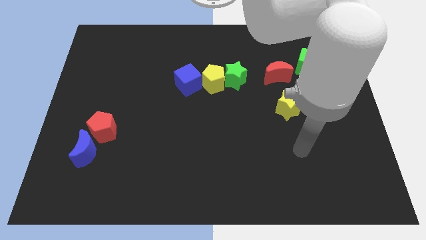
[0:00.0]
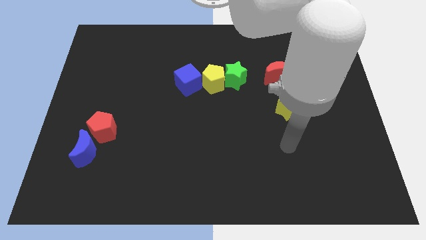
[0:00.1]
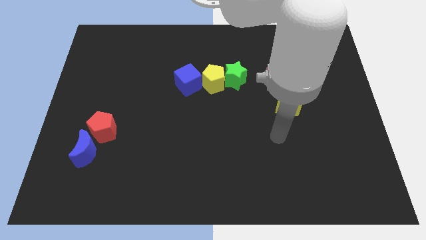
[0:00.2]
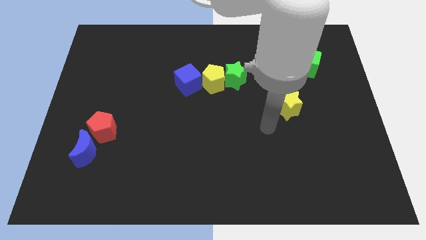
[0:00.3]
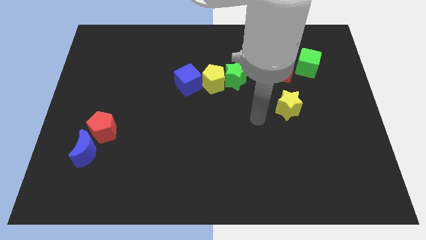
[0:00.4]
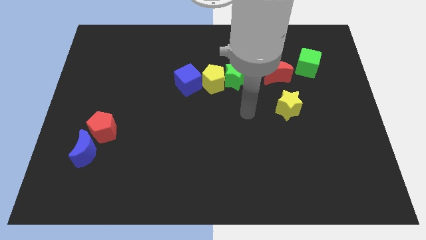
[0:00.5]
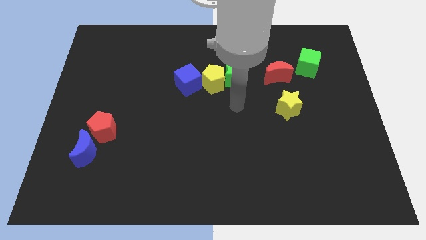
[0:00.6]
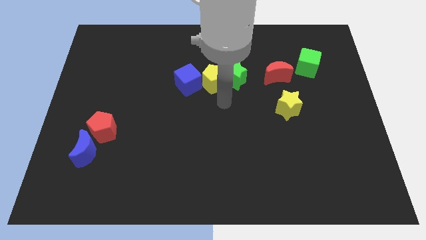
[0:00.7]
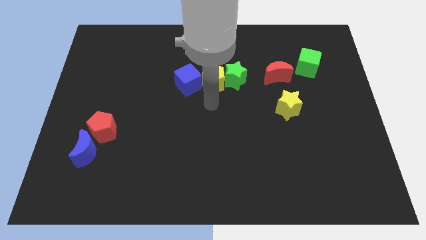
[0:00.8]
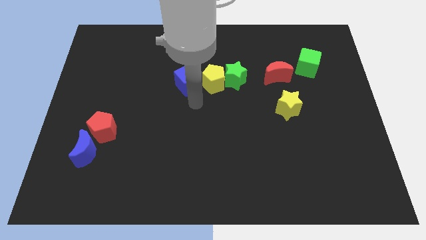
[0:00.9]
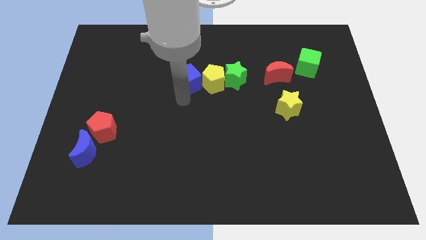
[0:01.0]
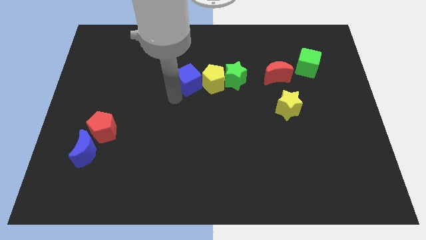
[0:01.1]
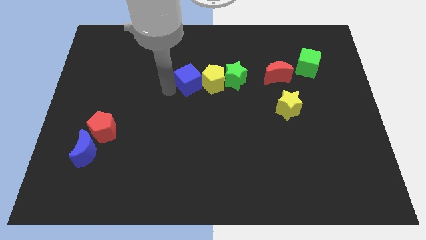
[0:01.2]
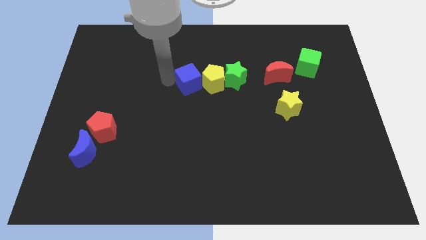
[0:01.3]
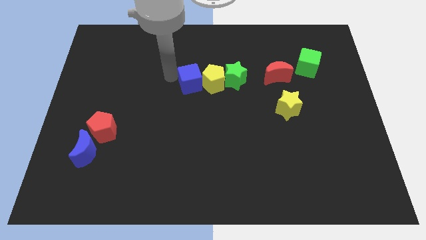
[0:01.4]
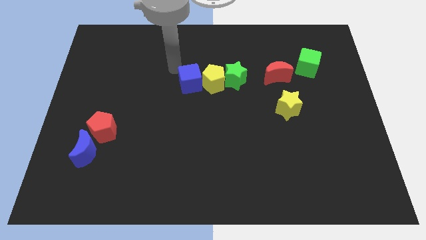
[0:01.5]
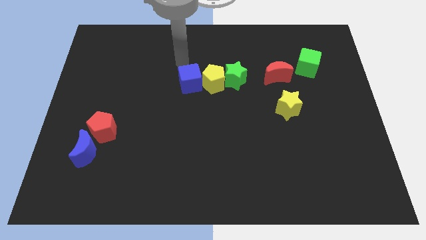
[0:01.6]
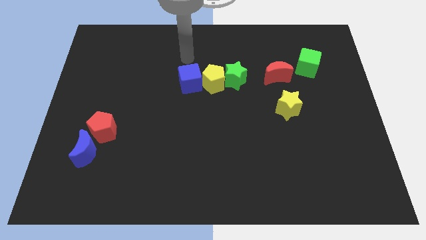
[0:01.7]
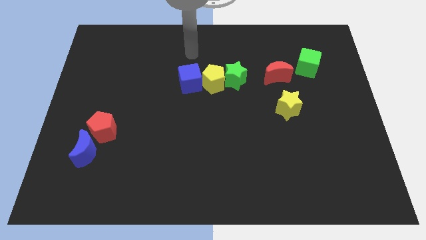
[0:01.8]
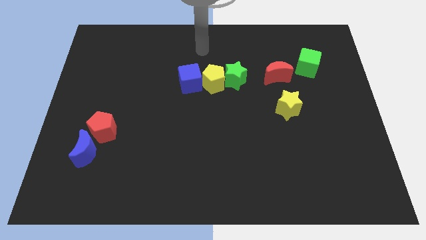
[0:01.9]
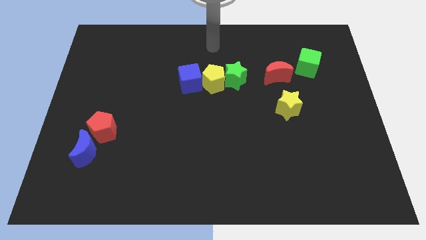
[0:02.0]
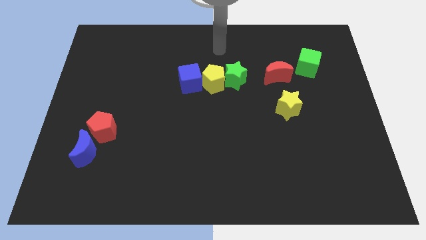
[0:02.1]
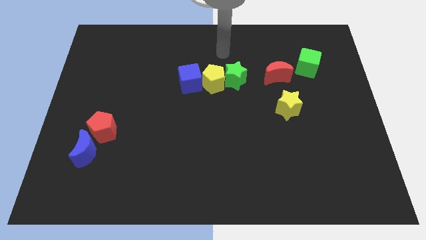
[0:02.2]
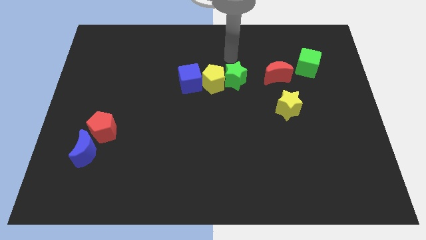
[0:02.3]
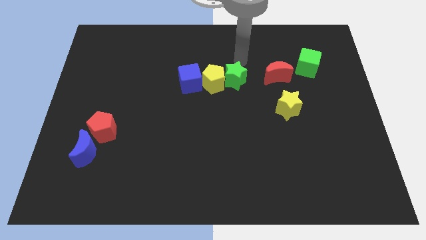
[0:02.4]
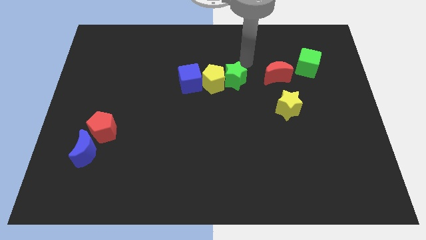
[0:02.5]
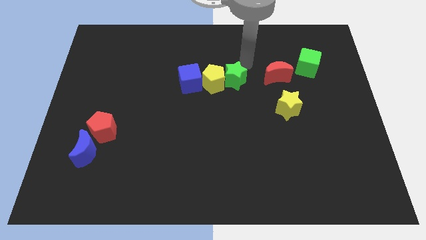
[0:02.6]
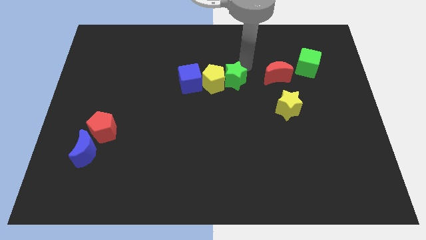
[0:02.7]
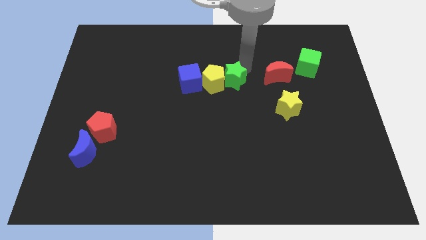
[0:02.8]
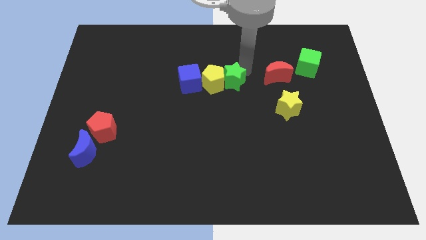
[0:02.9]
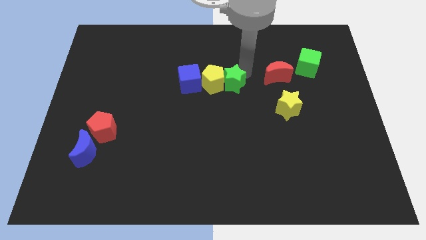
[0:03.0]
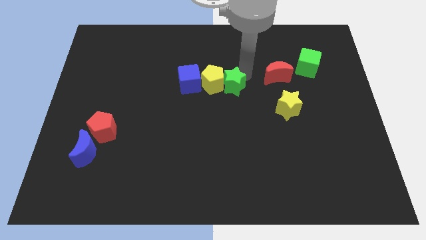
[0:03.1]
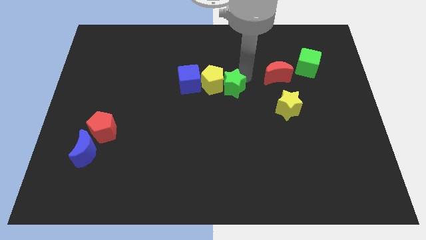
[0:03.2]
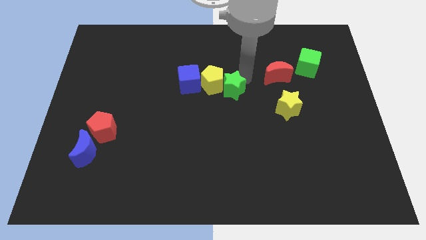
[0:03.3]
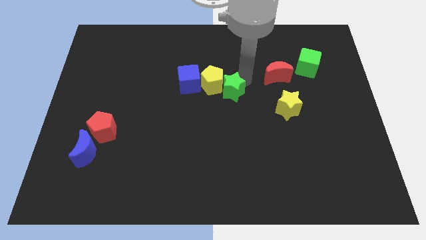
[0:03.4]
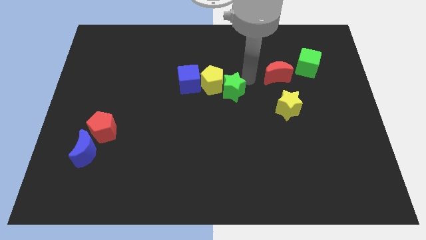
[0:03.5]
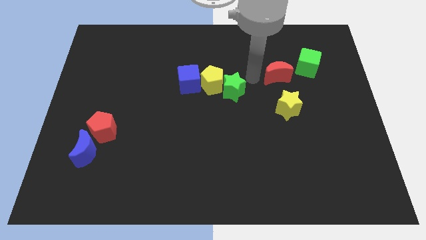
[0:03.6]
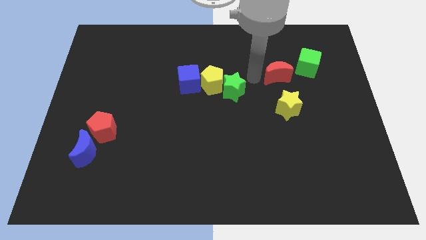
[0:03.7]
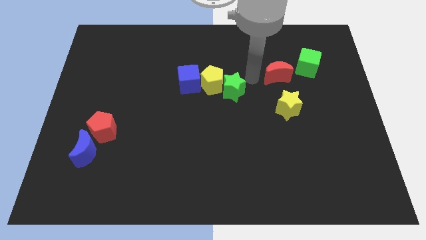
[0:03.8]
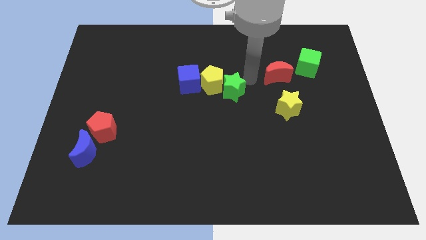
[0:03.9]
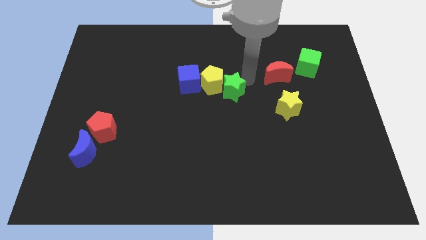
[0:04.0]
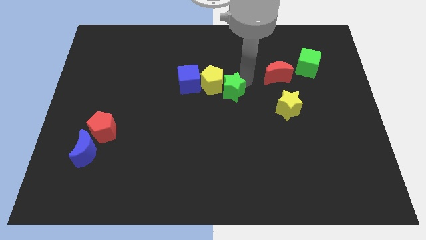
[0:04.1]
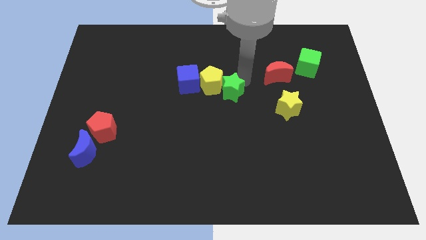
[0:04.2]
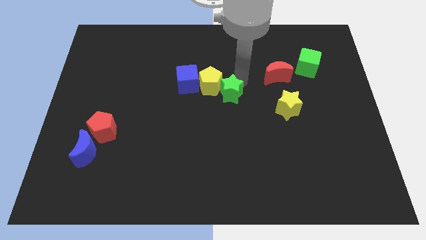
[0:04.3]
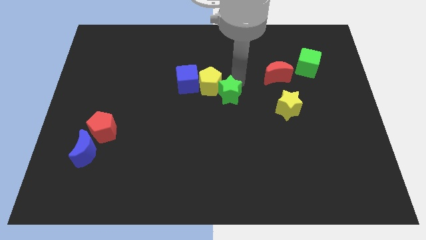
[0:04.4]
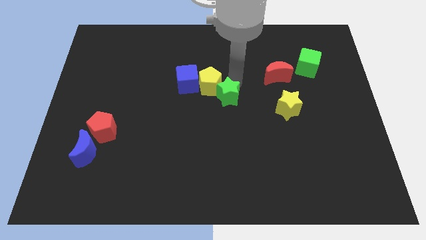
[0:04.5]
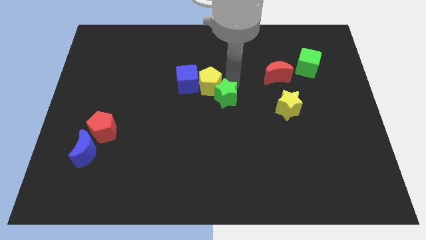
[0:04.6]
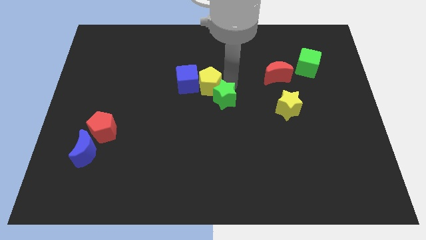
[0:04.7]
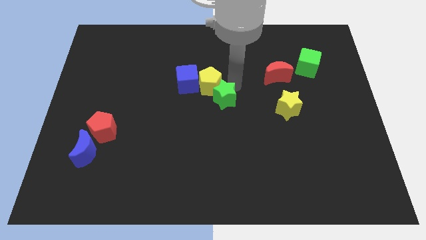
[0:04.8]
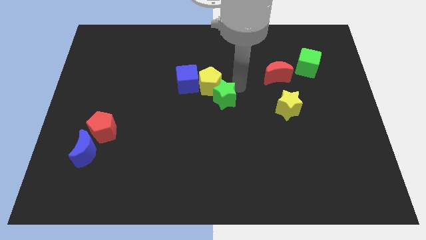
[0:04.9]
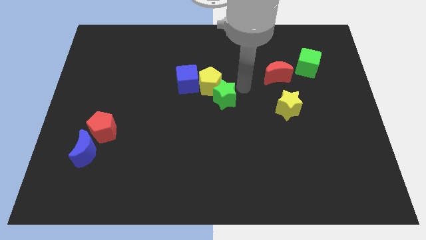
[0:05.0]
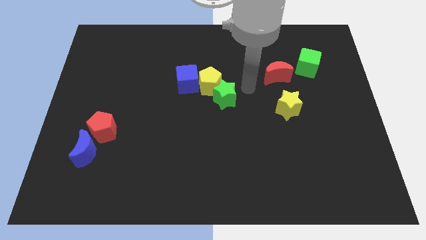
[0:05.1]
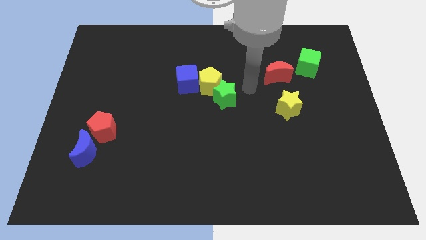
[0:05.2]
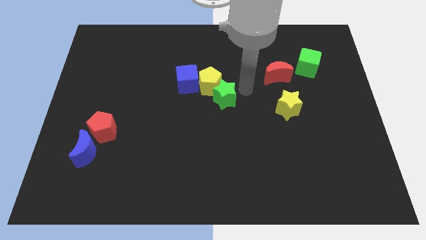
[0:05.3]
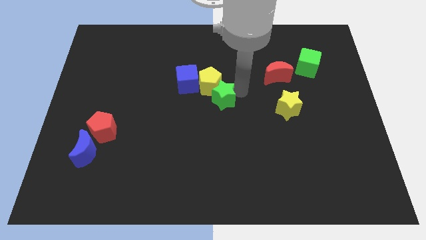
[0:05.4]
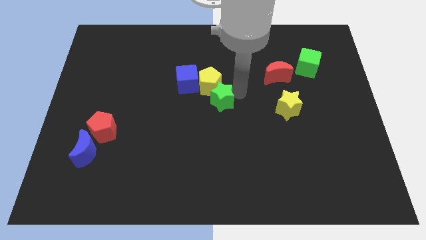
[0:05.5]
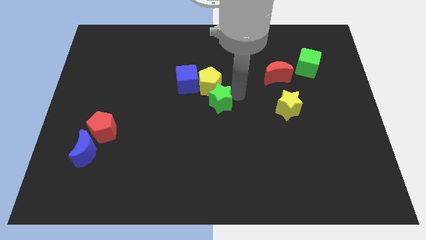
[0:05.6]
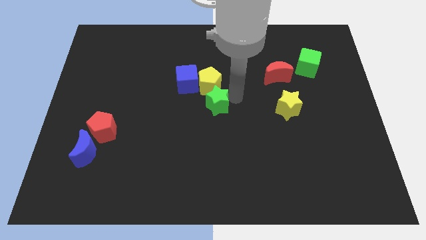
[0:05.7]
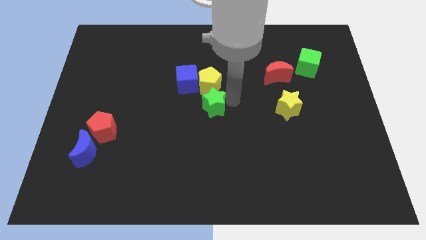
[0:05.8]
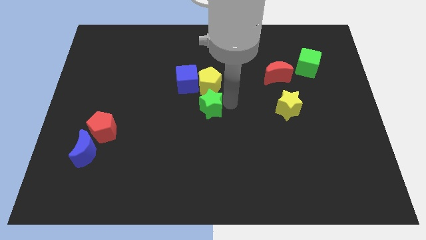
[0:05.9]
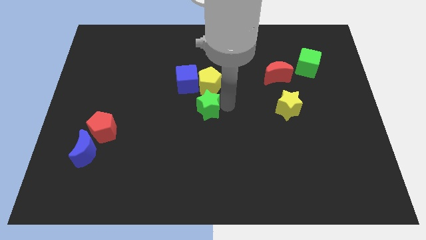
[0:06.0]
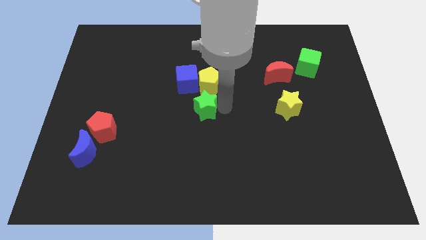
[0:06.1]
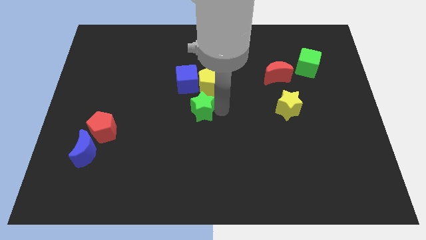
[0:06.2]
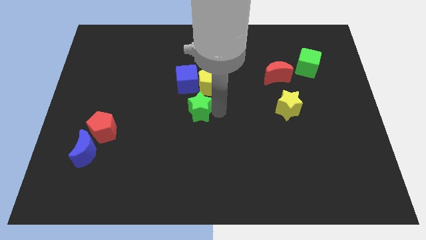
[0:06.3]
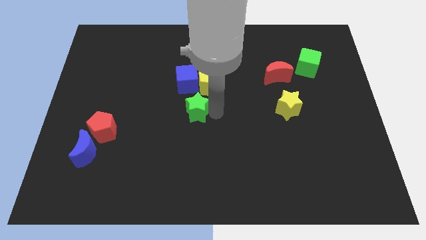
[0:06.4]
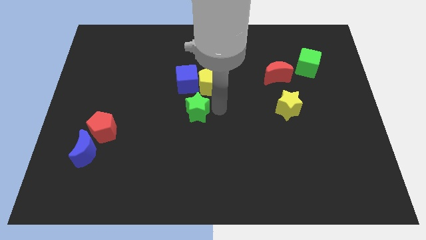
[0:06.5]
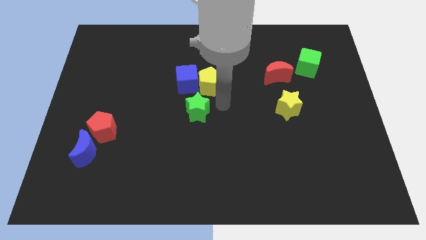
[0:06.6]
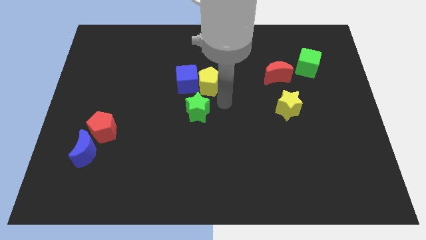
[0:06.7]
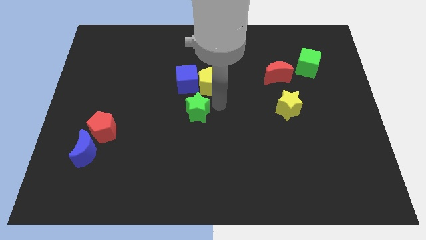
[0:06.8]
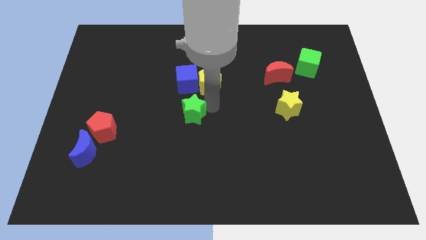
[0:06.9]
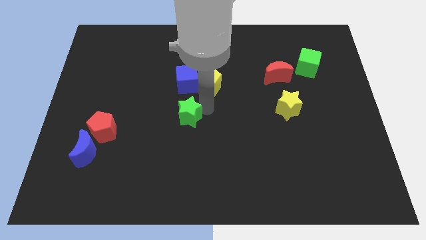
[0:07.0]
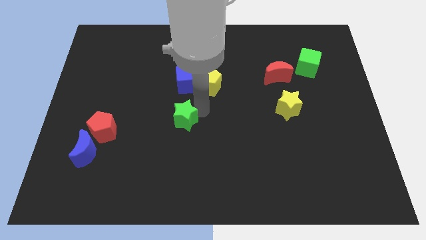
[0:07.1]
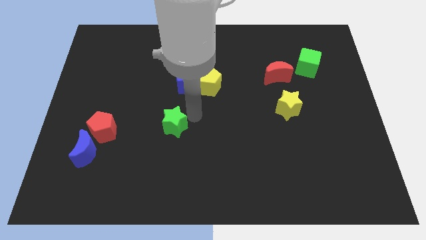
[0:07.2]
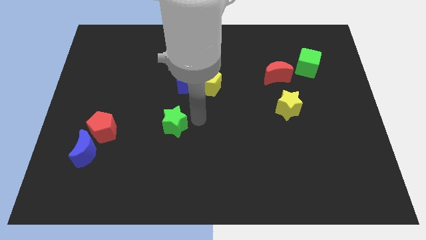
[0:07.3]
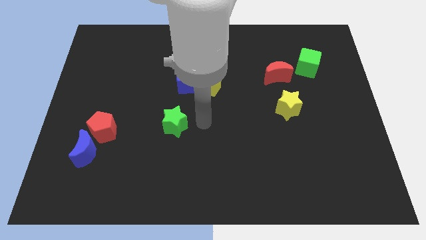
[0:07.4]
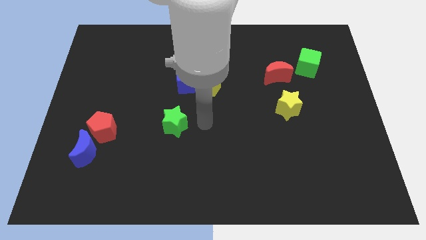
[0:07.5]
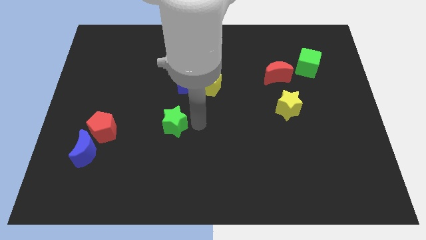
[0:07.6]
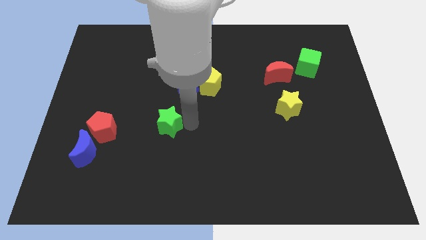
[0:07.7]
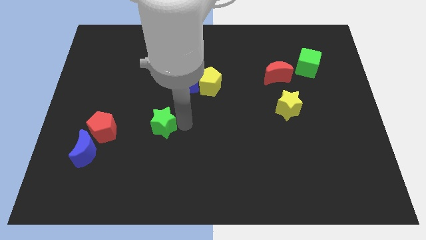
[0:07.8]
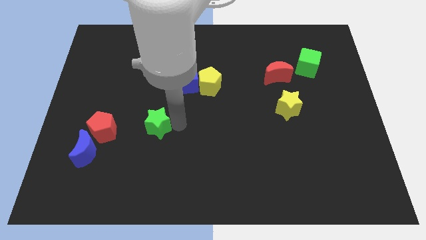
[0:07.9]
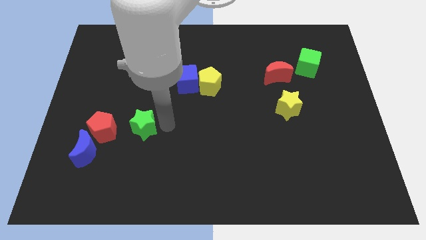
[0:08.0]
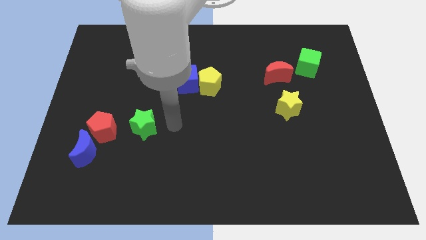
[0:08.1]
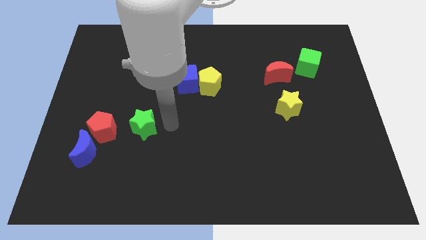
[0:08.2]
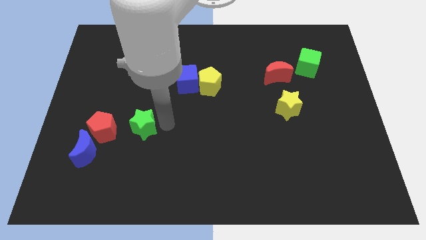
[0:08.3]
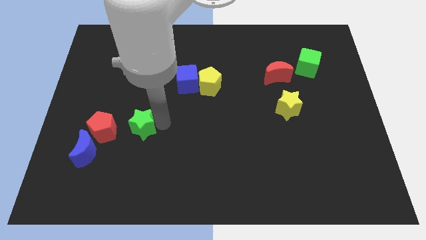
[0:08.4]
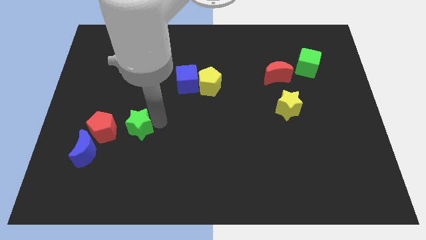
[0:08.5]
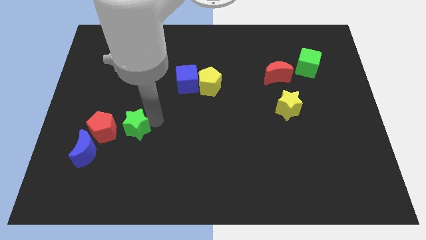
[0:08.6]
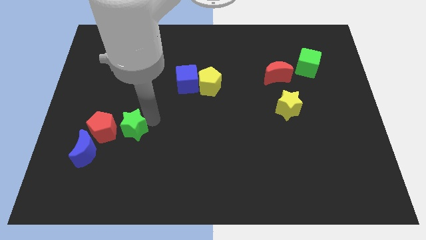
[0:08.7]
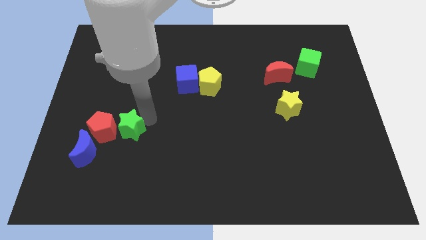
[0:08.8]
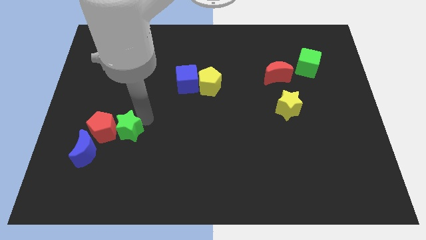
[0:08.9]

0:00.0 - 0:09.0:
slide the green star towards the red pentagon
